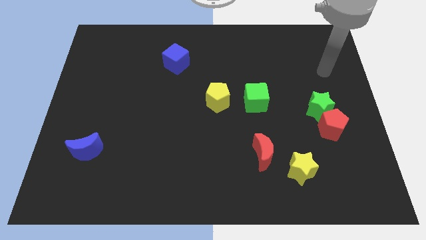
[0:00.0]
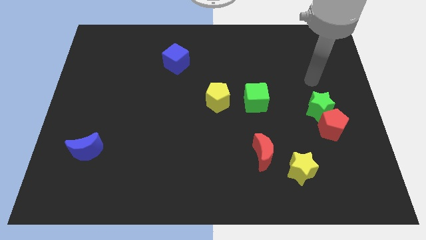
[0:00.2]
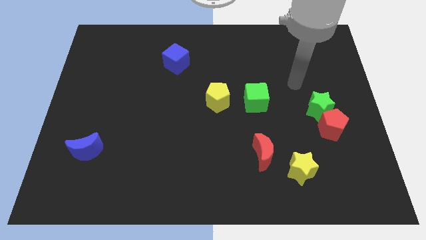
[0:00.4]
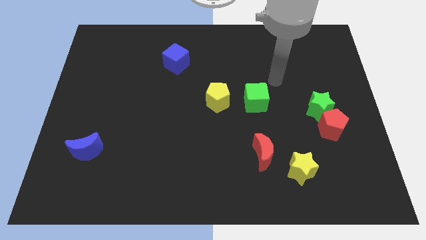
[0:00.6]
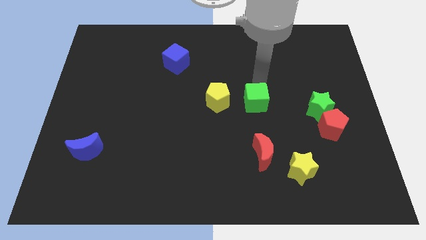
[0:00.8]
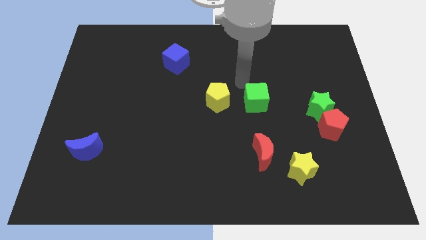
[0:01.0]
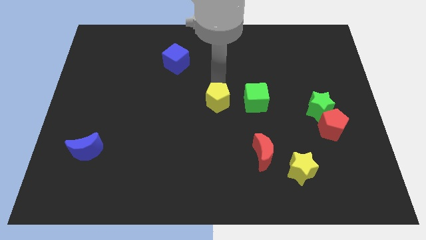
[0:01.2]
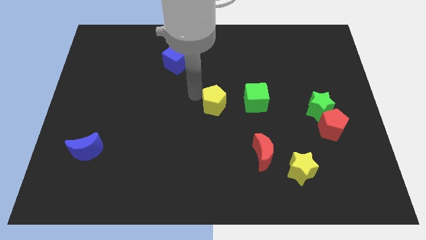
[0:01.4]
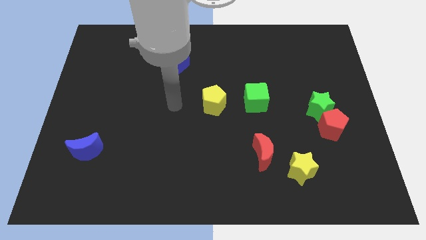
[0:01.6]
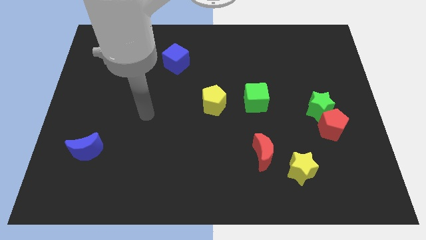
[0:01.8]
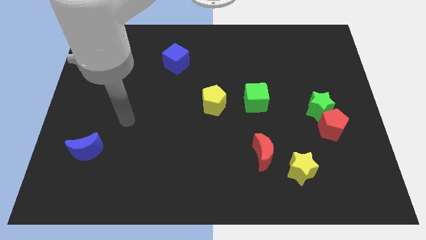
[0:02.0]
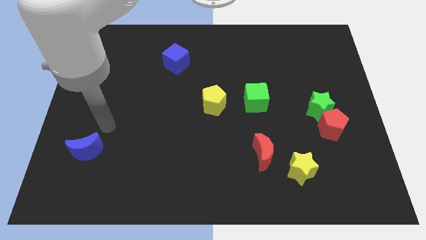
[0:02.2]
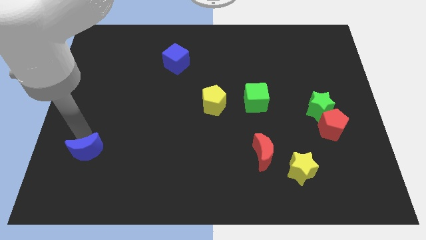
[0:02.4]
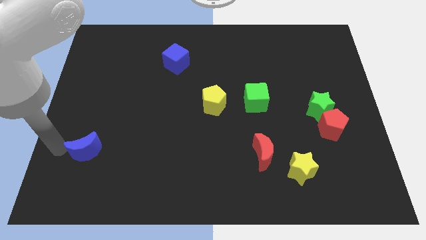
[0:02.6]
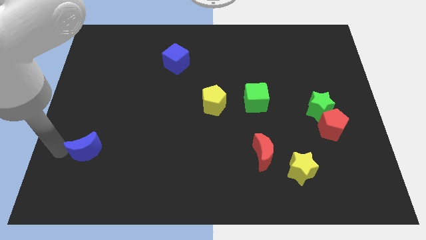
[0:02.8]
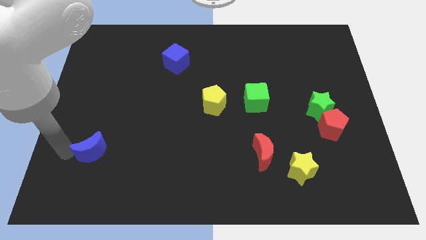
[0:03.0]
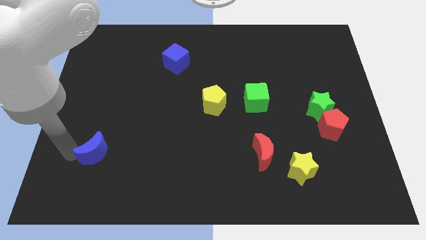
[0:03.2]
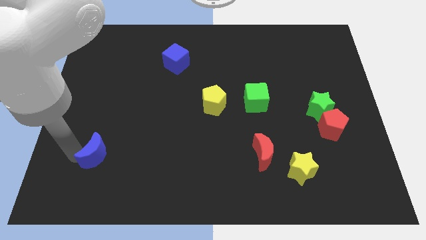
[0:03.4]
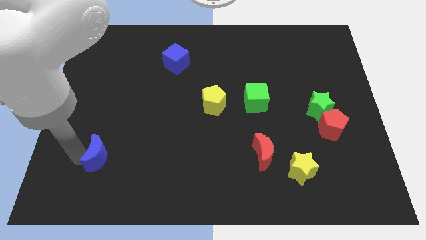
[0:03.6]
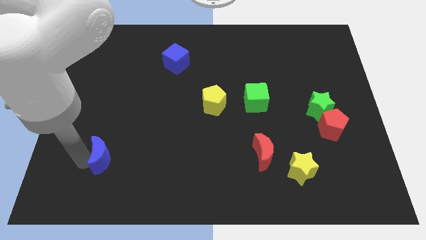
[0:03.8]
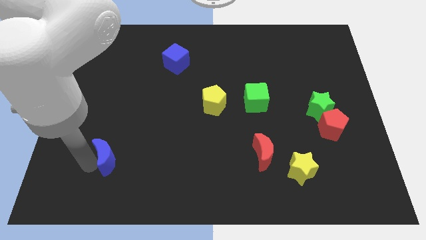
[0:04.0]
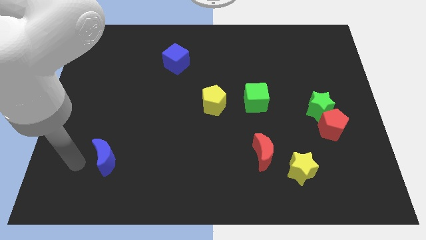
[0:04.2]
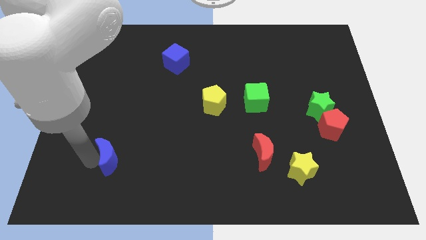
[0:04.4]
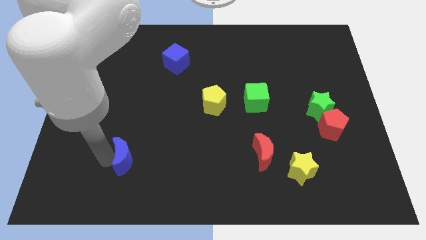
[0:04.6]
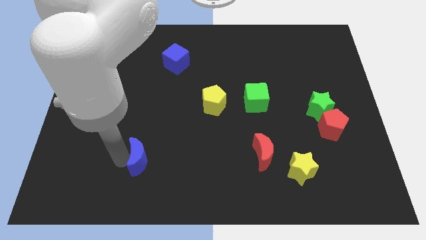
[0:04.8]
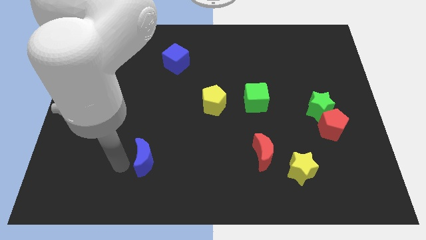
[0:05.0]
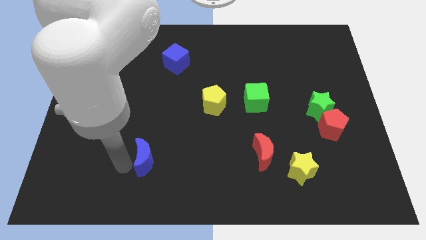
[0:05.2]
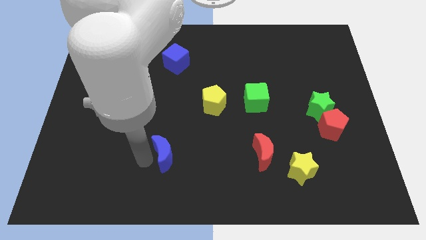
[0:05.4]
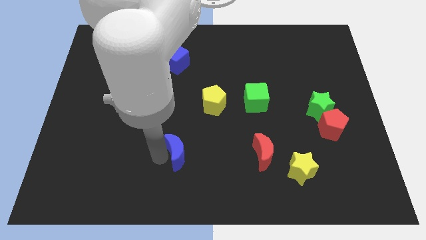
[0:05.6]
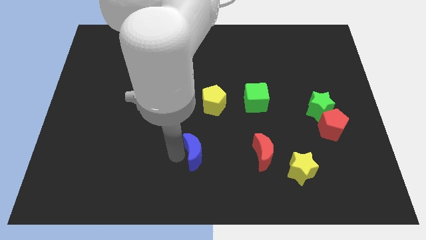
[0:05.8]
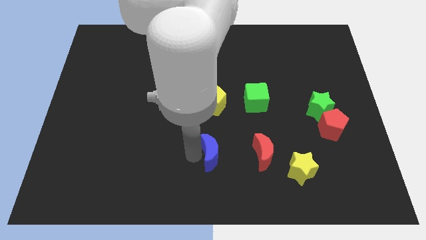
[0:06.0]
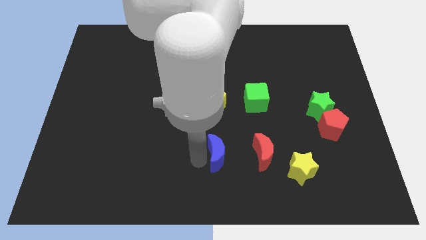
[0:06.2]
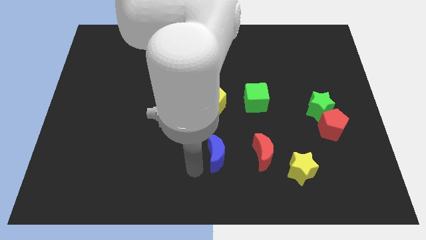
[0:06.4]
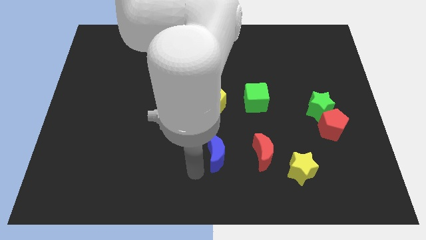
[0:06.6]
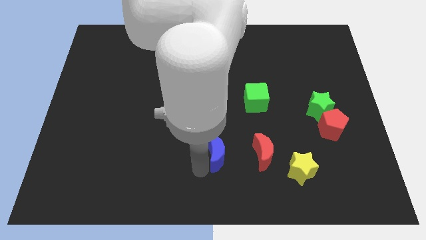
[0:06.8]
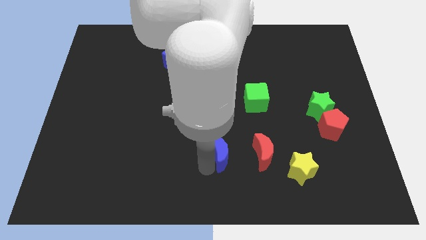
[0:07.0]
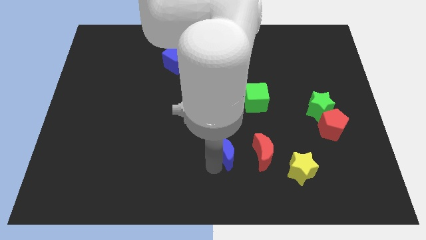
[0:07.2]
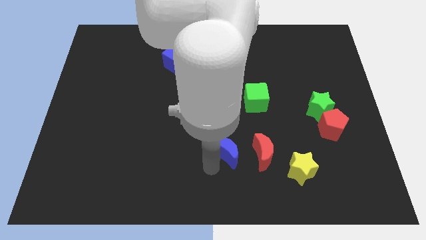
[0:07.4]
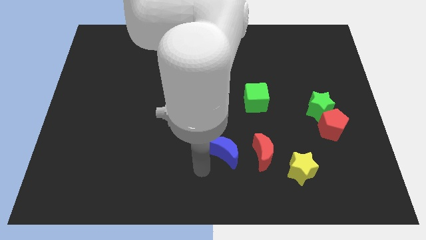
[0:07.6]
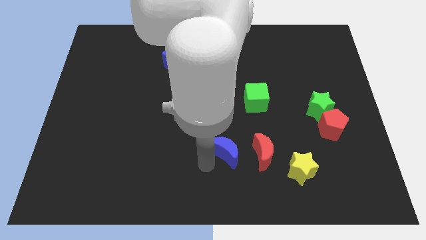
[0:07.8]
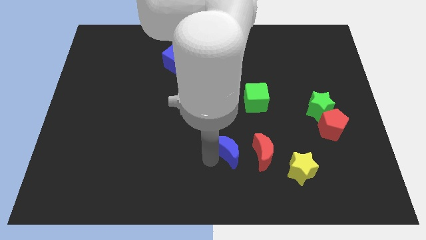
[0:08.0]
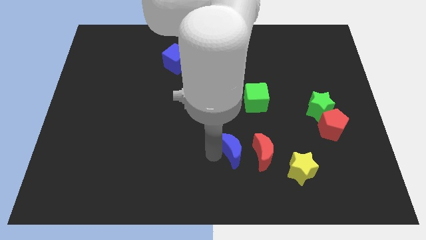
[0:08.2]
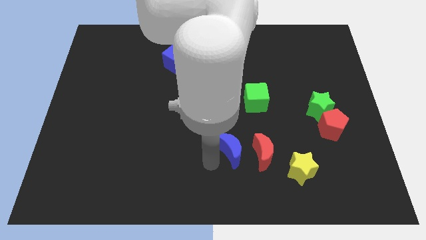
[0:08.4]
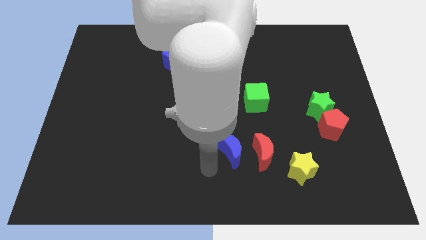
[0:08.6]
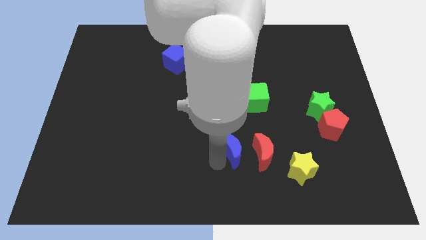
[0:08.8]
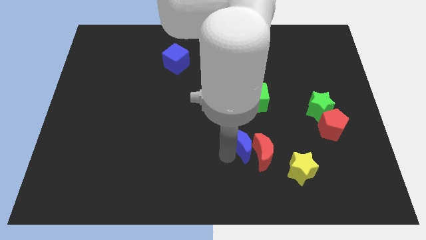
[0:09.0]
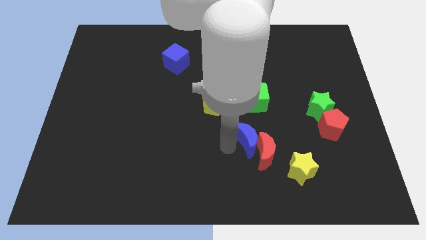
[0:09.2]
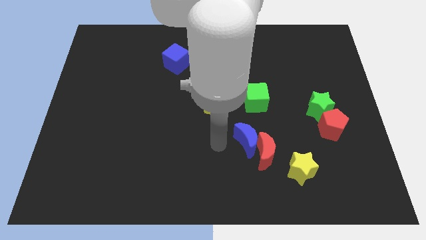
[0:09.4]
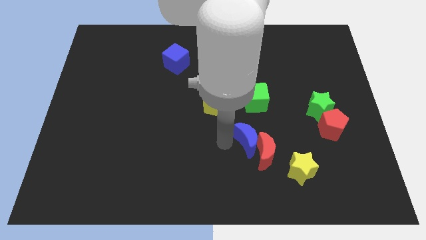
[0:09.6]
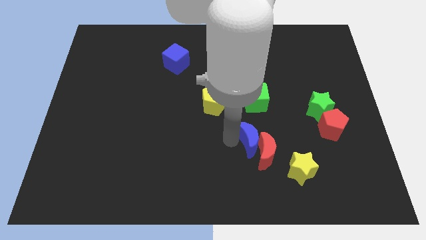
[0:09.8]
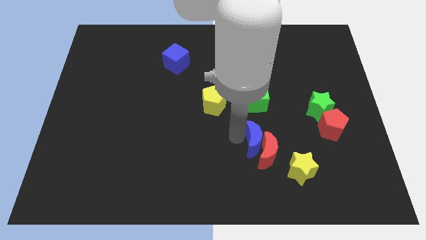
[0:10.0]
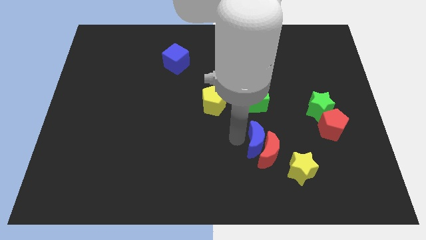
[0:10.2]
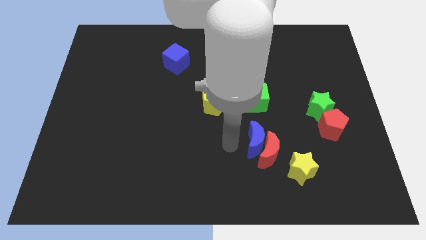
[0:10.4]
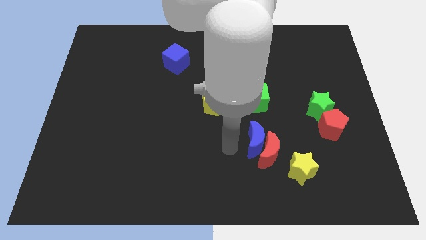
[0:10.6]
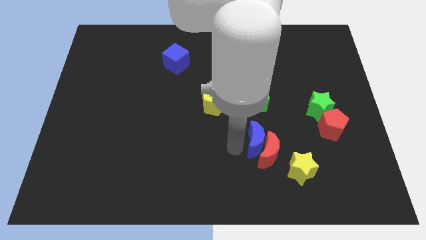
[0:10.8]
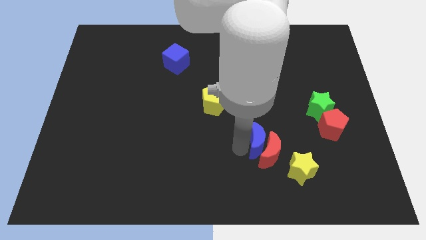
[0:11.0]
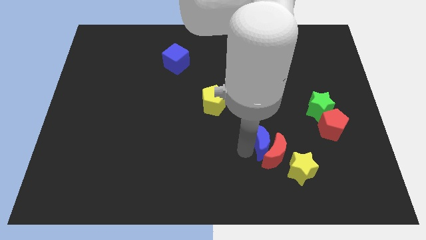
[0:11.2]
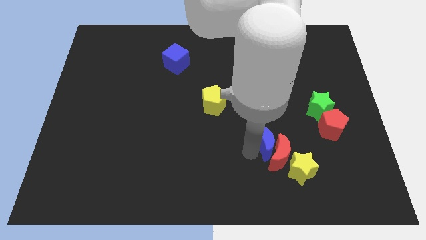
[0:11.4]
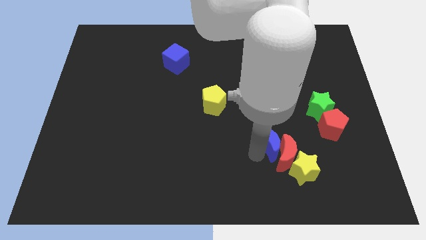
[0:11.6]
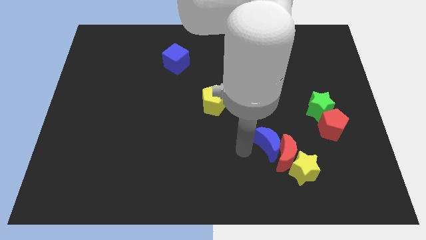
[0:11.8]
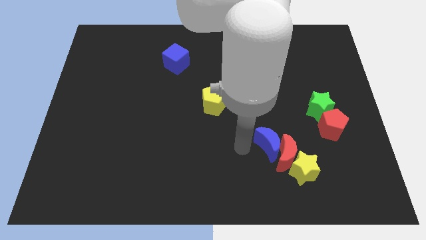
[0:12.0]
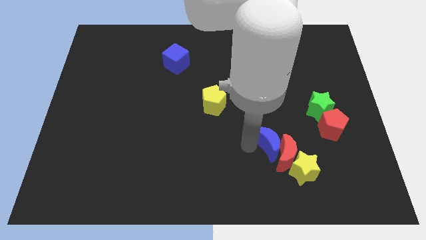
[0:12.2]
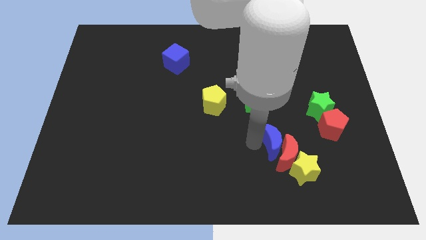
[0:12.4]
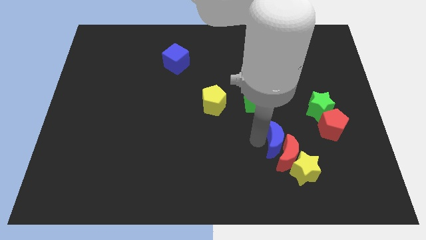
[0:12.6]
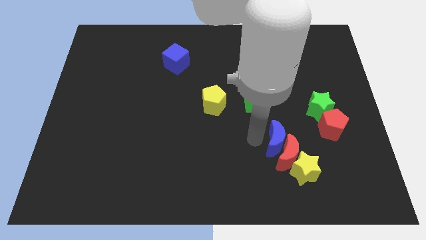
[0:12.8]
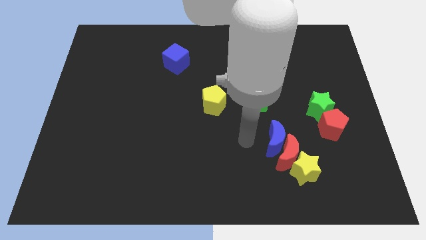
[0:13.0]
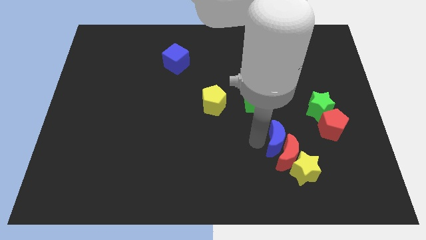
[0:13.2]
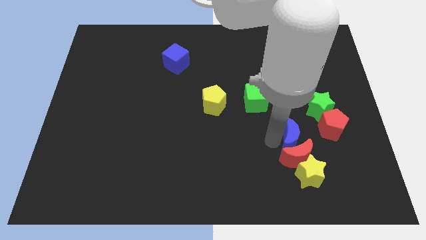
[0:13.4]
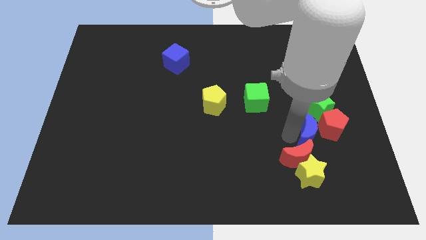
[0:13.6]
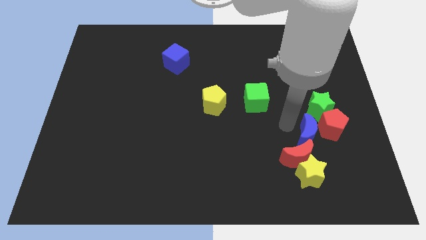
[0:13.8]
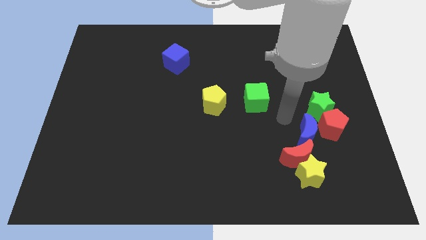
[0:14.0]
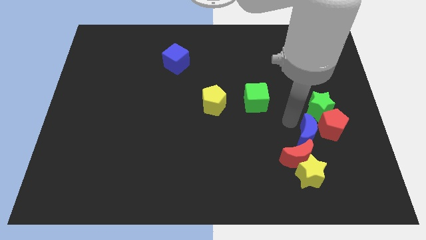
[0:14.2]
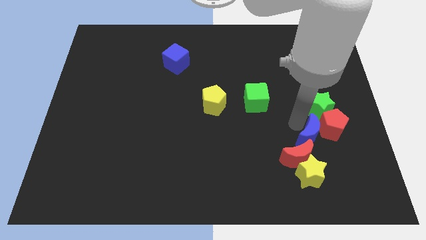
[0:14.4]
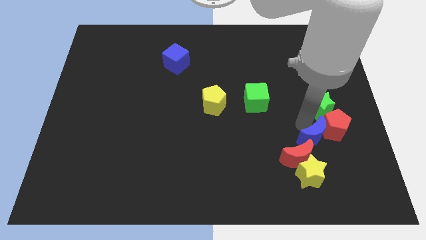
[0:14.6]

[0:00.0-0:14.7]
move the blue moon to the top right of the yellow star

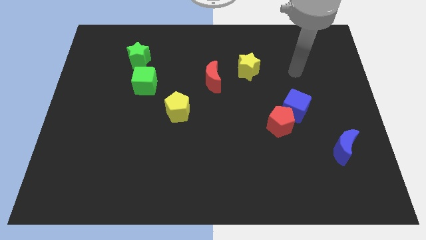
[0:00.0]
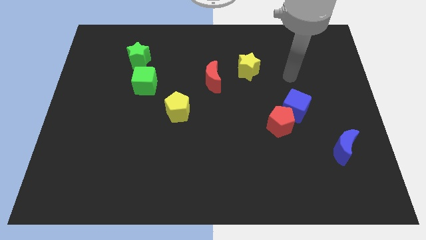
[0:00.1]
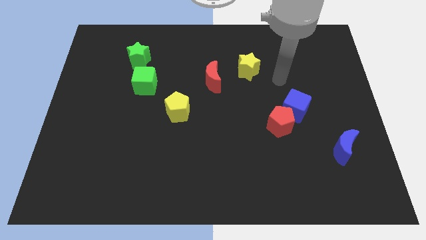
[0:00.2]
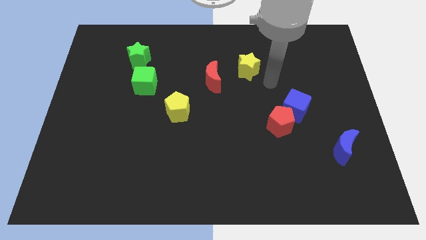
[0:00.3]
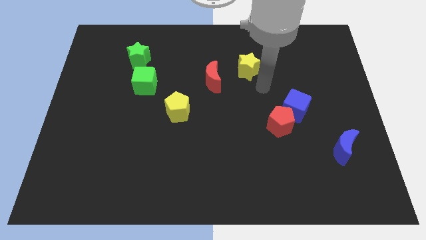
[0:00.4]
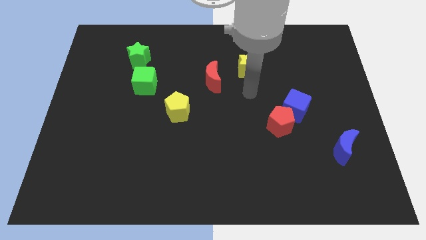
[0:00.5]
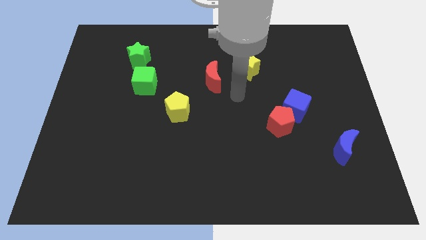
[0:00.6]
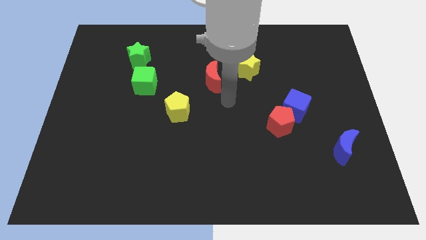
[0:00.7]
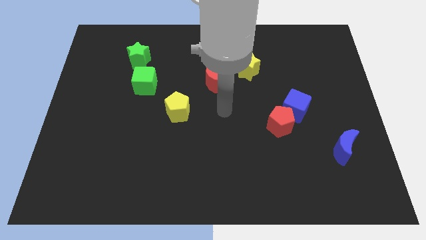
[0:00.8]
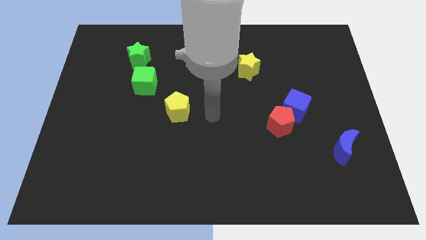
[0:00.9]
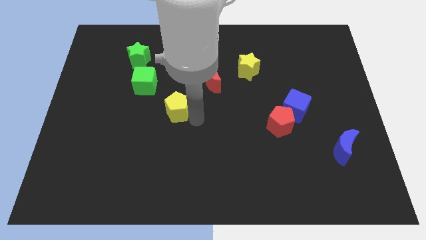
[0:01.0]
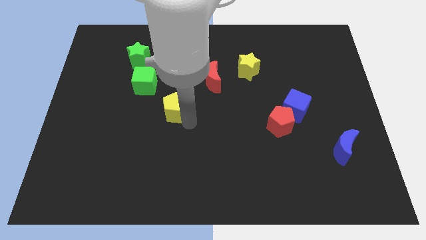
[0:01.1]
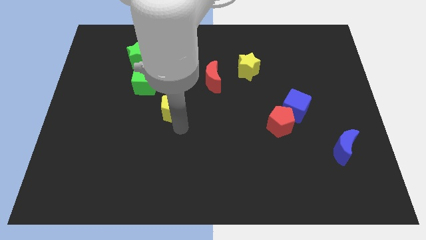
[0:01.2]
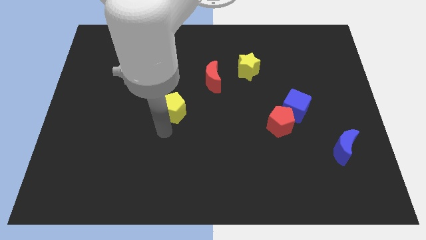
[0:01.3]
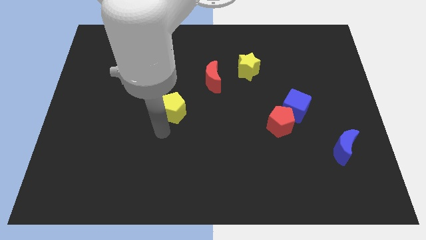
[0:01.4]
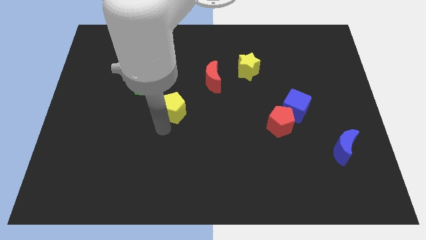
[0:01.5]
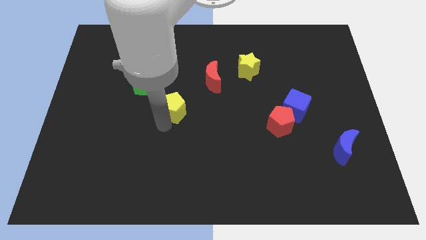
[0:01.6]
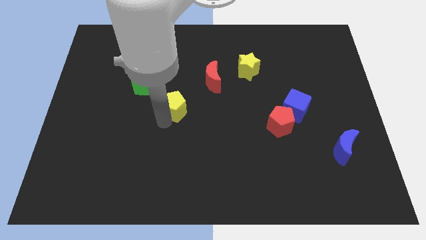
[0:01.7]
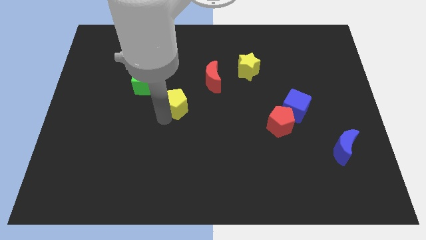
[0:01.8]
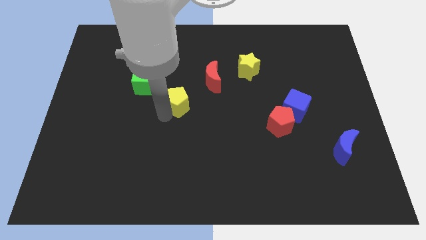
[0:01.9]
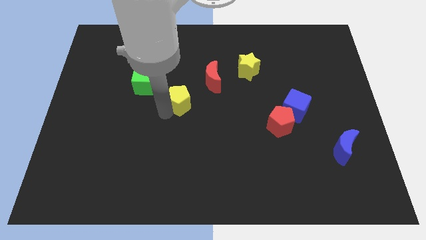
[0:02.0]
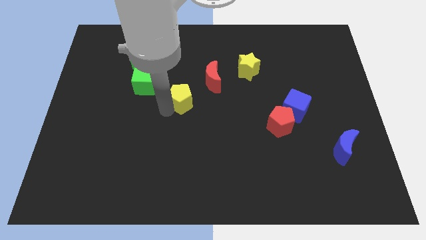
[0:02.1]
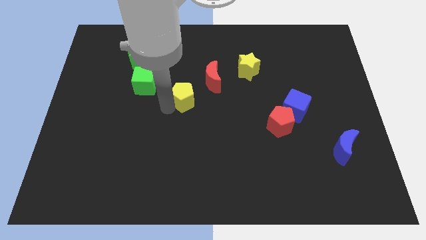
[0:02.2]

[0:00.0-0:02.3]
move the yellow pentagon to the right side of the green cube
